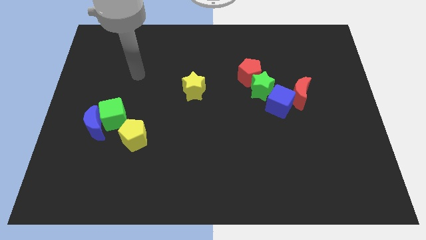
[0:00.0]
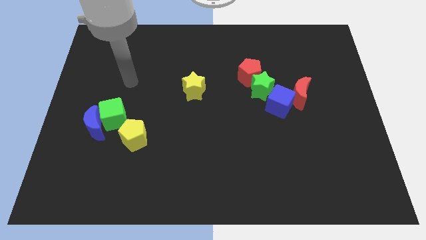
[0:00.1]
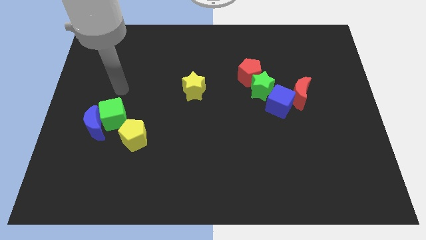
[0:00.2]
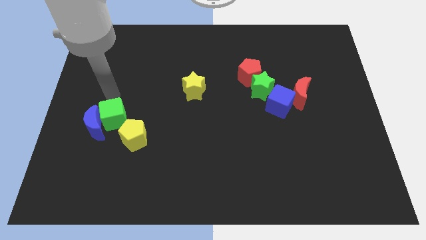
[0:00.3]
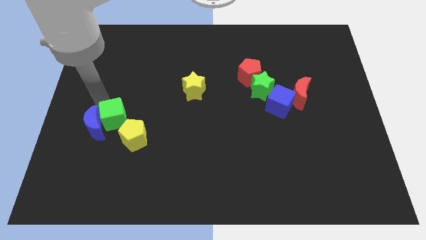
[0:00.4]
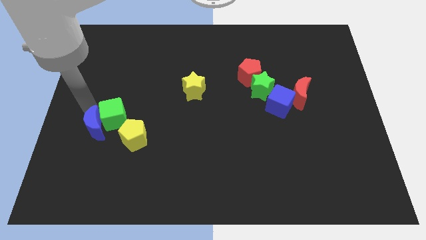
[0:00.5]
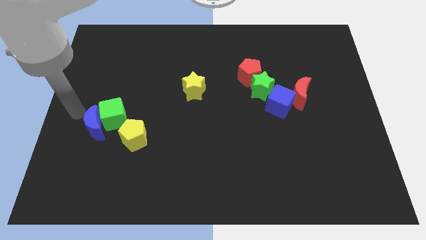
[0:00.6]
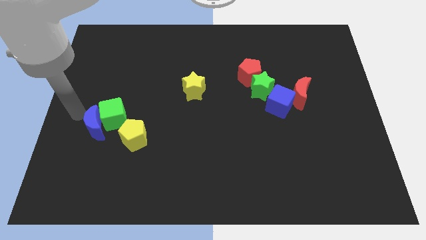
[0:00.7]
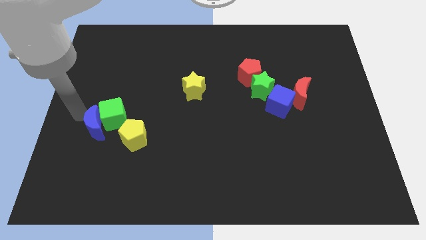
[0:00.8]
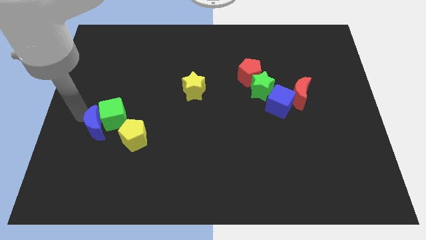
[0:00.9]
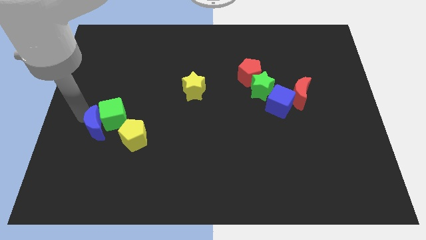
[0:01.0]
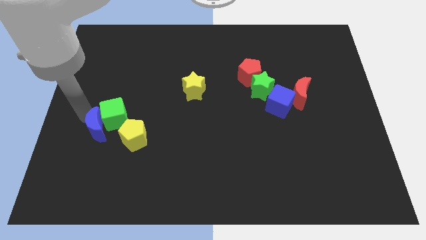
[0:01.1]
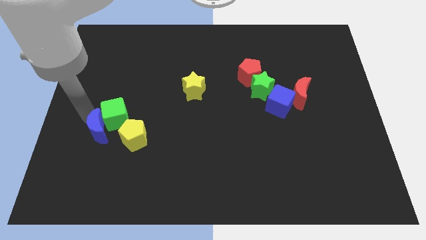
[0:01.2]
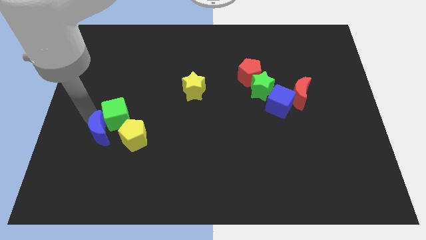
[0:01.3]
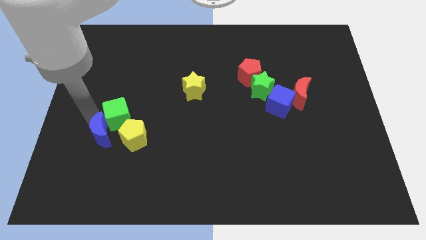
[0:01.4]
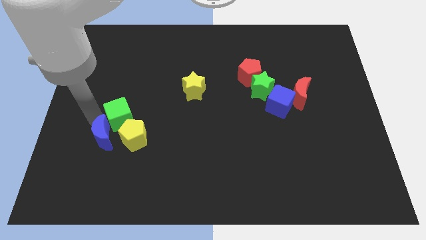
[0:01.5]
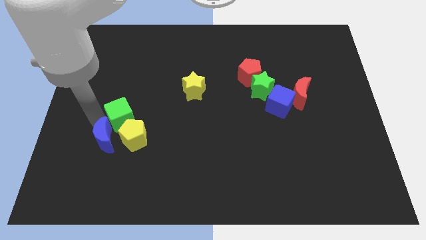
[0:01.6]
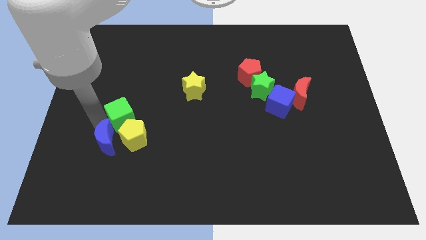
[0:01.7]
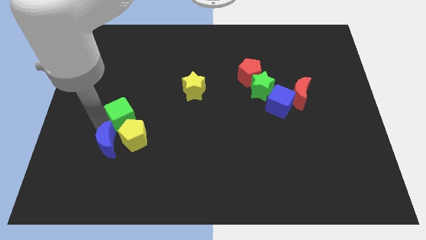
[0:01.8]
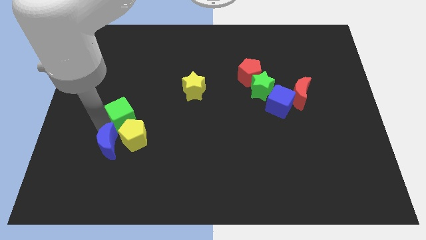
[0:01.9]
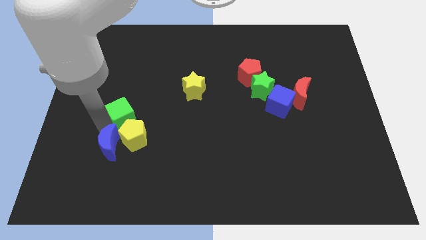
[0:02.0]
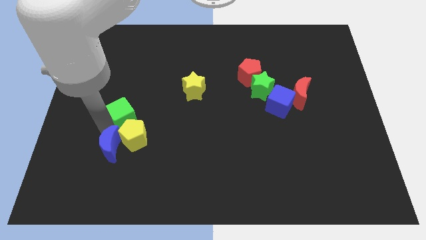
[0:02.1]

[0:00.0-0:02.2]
slightly slide the blue moon downwards and then right

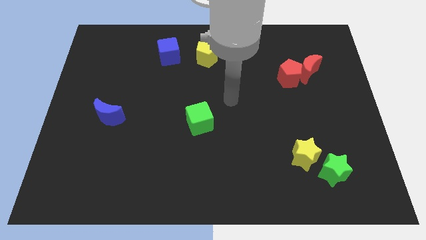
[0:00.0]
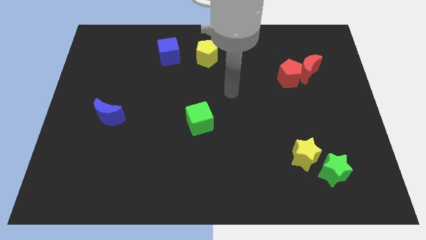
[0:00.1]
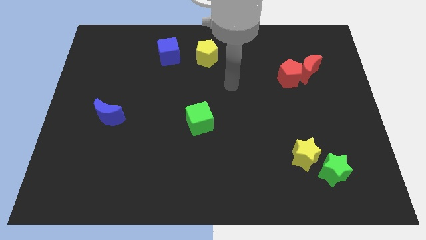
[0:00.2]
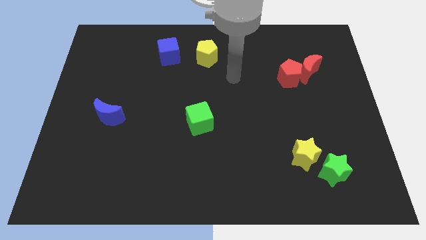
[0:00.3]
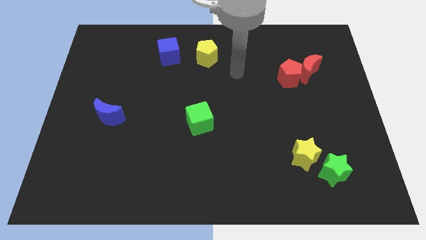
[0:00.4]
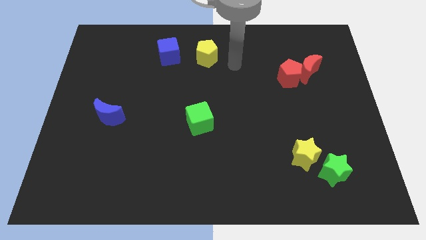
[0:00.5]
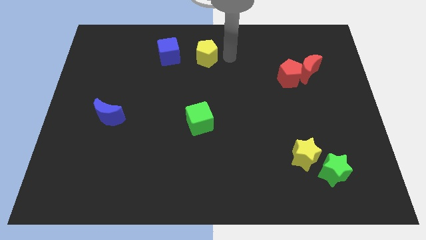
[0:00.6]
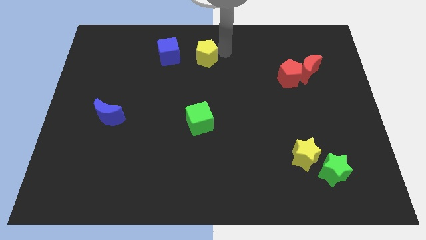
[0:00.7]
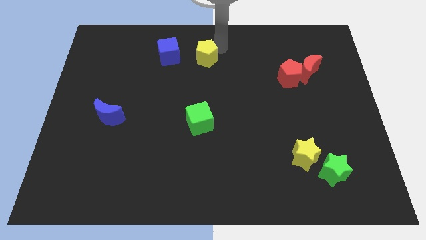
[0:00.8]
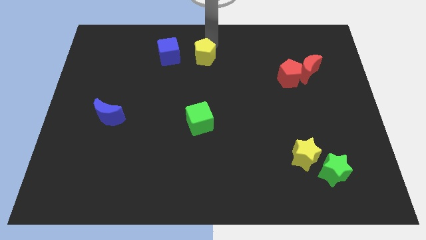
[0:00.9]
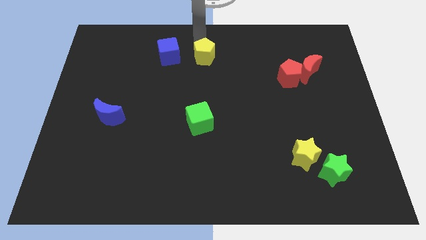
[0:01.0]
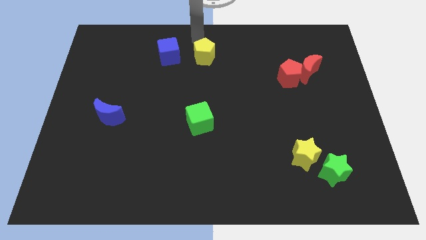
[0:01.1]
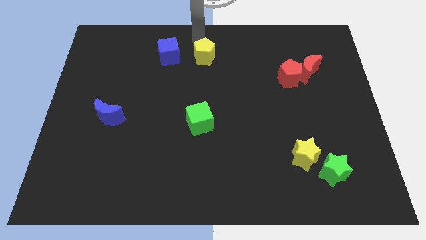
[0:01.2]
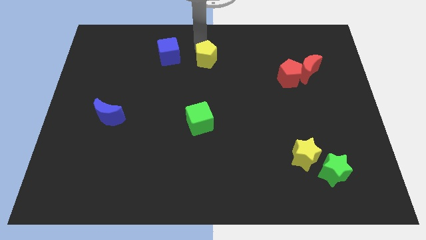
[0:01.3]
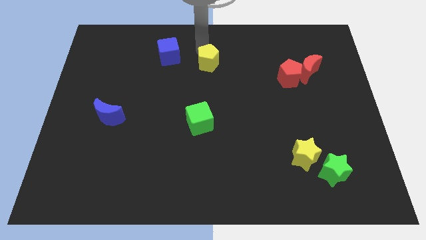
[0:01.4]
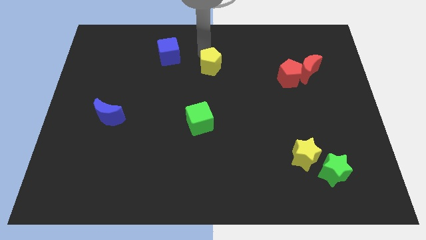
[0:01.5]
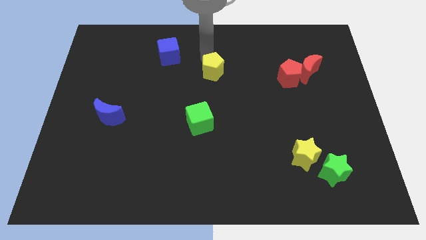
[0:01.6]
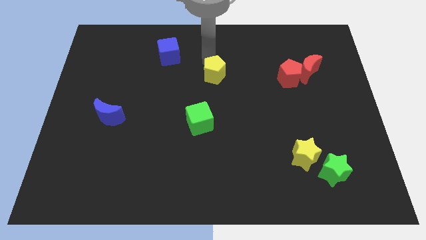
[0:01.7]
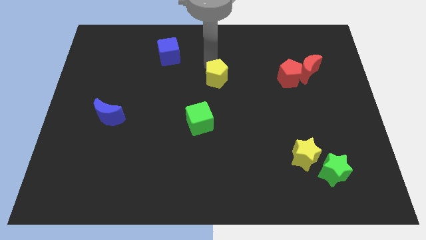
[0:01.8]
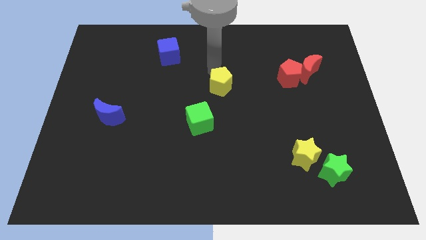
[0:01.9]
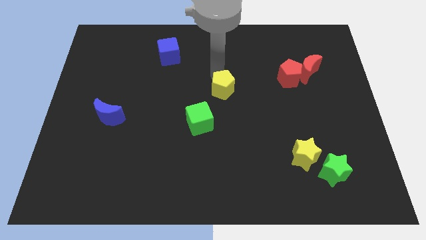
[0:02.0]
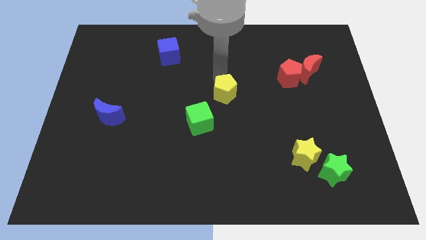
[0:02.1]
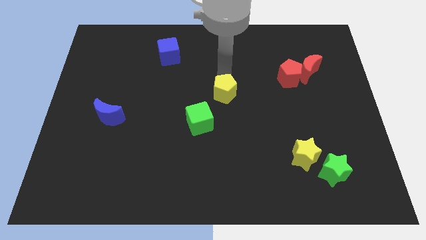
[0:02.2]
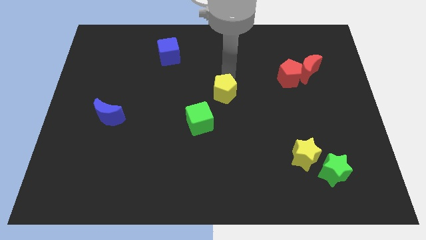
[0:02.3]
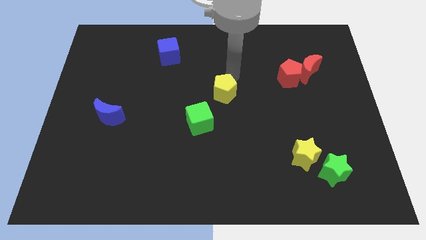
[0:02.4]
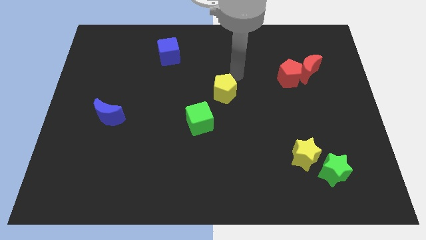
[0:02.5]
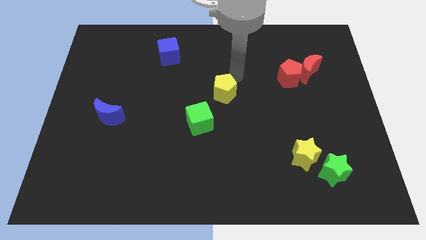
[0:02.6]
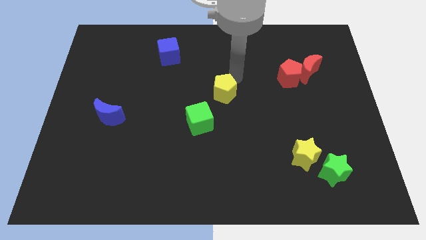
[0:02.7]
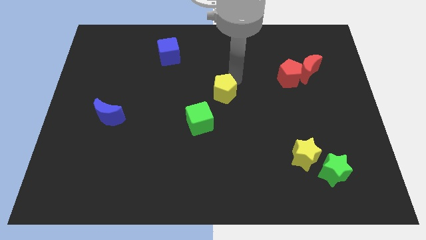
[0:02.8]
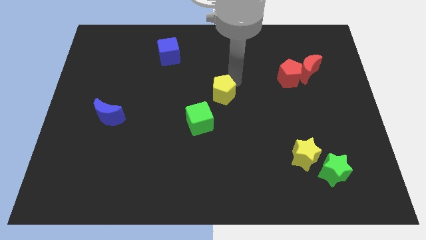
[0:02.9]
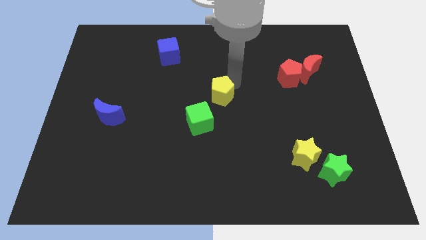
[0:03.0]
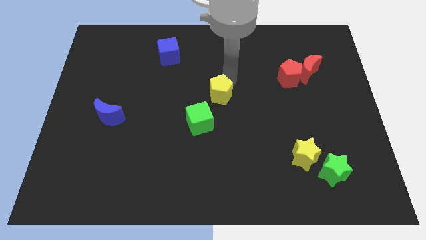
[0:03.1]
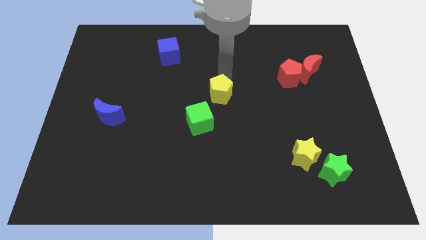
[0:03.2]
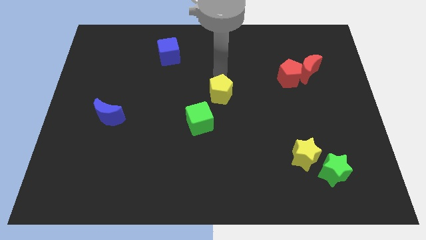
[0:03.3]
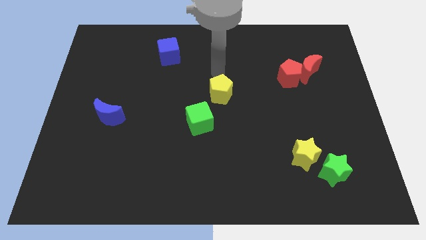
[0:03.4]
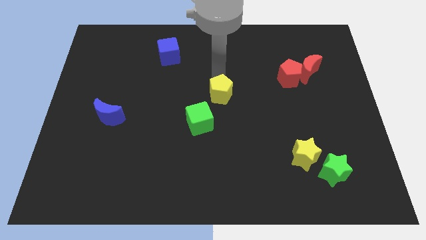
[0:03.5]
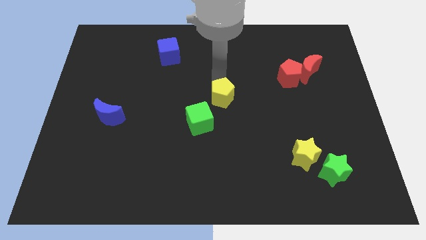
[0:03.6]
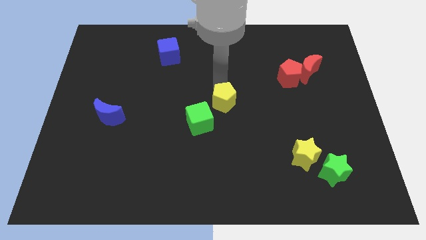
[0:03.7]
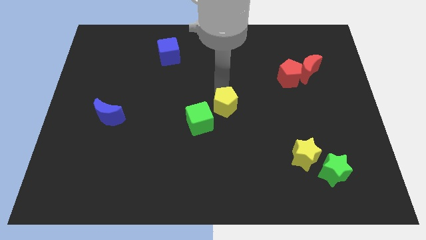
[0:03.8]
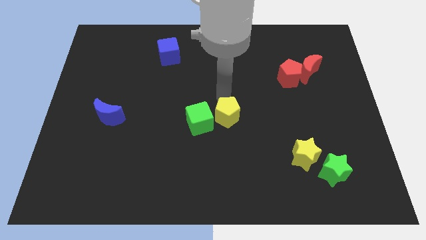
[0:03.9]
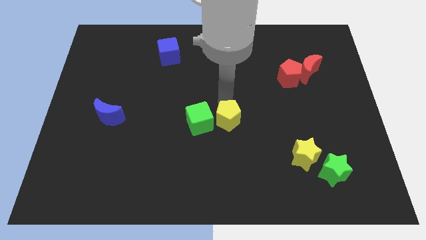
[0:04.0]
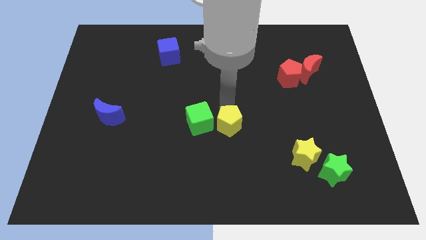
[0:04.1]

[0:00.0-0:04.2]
slide the yellow pentagon downwards

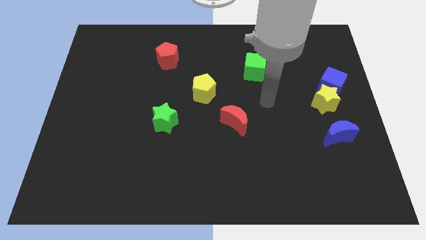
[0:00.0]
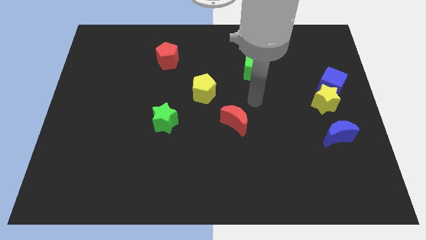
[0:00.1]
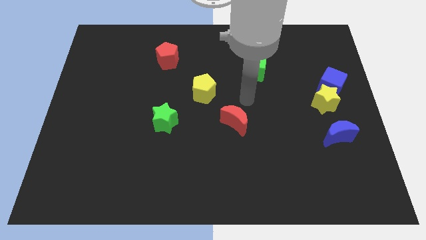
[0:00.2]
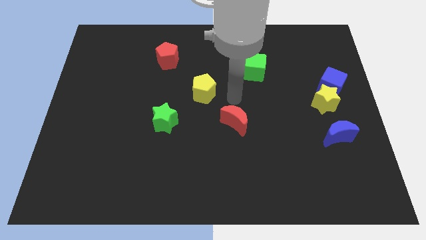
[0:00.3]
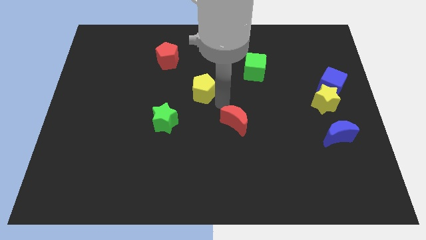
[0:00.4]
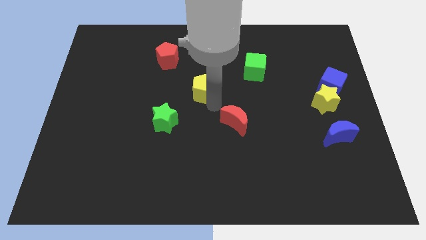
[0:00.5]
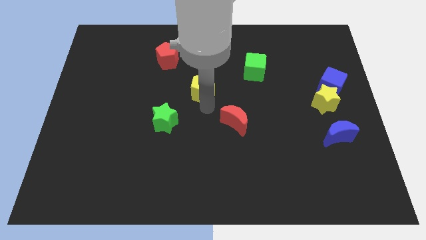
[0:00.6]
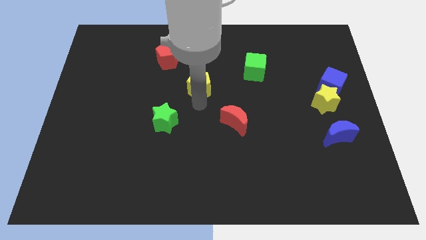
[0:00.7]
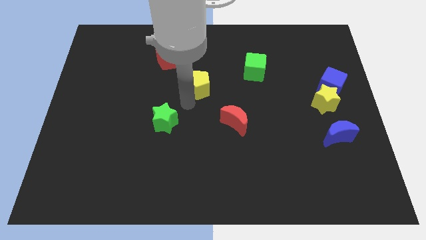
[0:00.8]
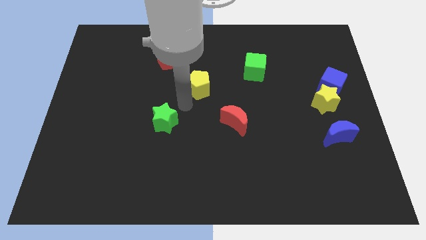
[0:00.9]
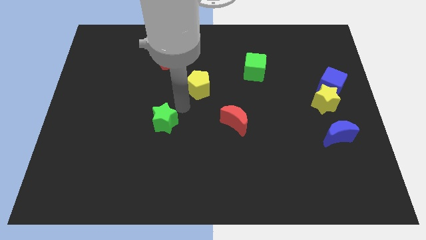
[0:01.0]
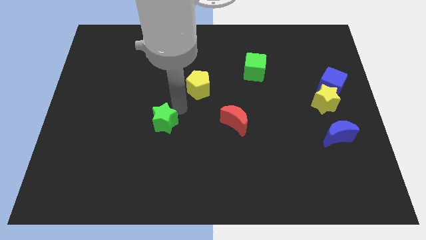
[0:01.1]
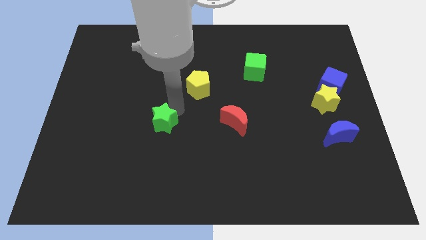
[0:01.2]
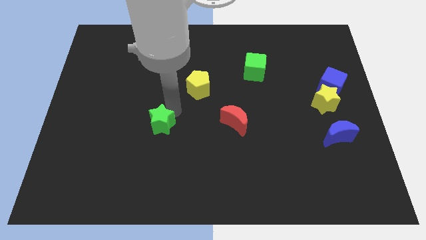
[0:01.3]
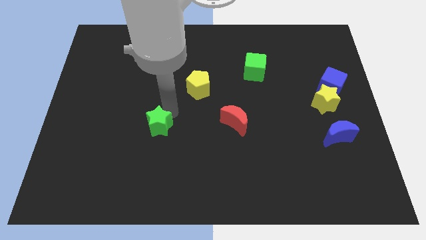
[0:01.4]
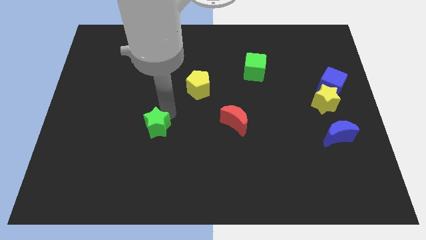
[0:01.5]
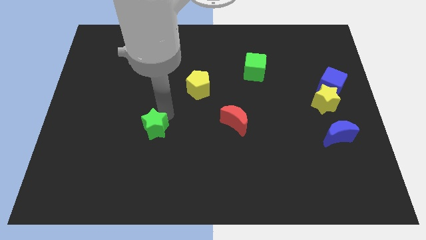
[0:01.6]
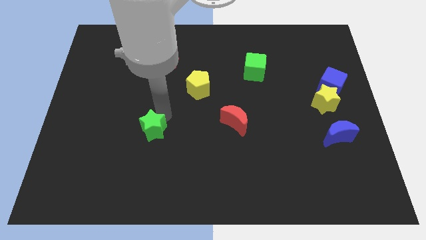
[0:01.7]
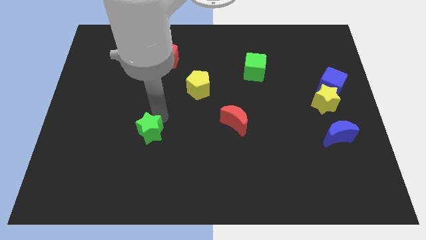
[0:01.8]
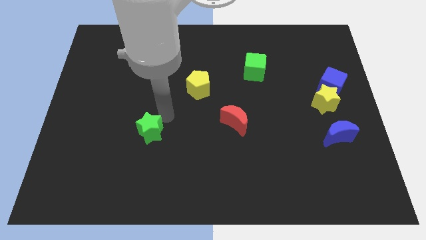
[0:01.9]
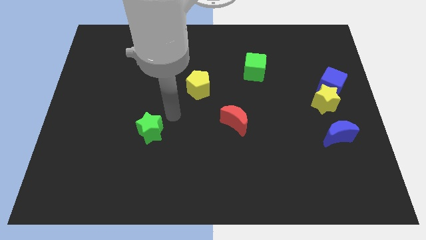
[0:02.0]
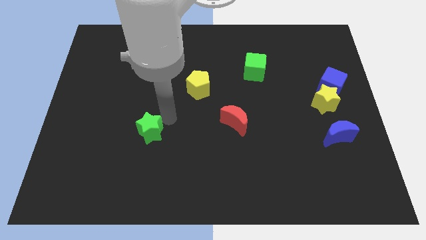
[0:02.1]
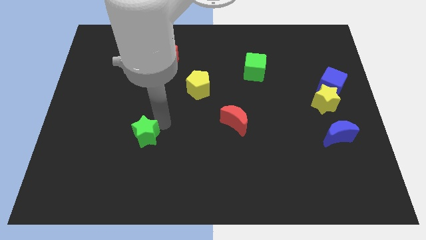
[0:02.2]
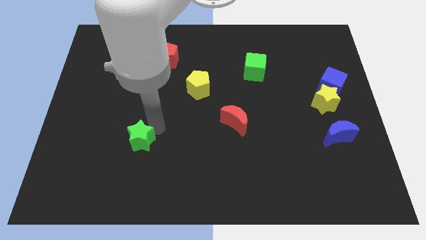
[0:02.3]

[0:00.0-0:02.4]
push the green star somewhat down and left diagonally
